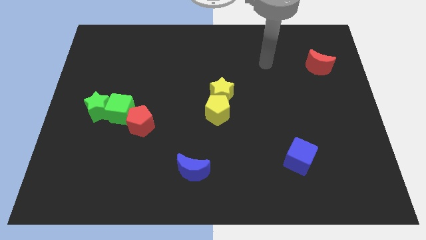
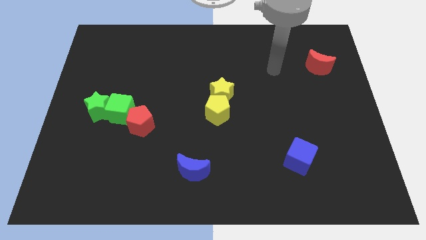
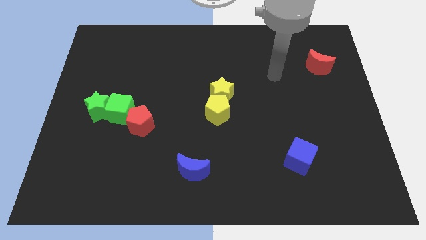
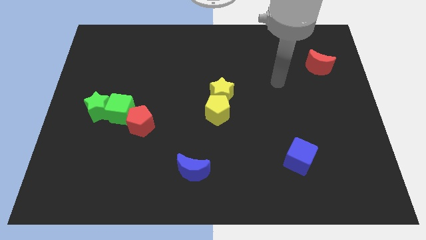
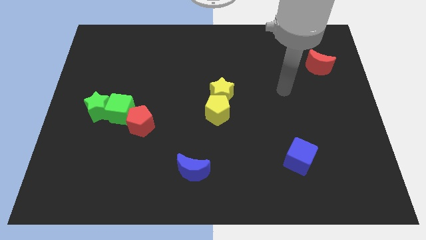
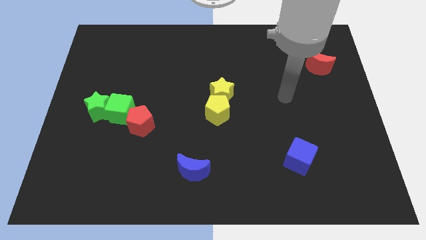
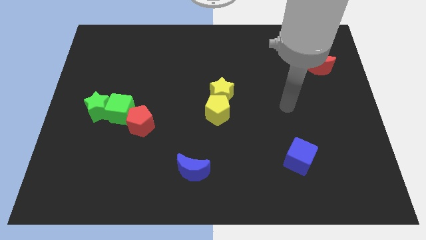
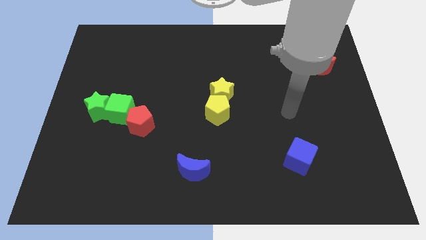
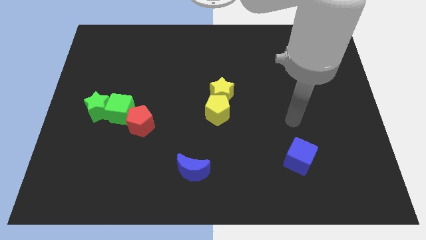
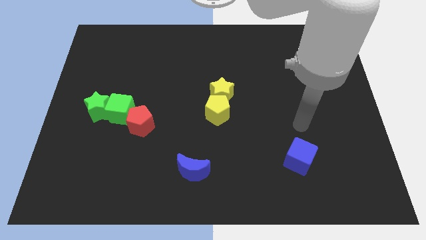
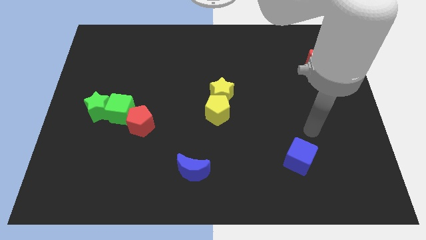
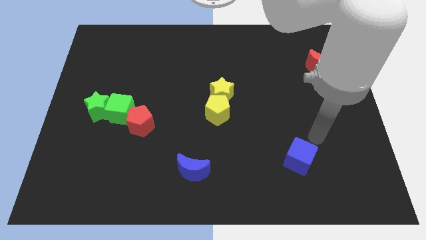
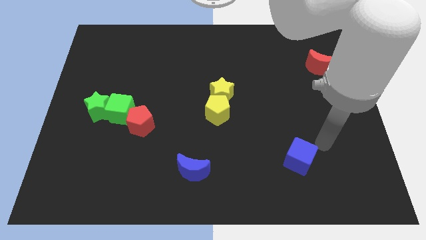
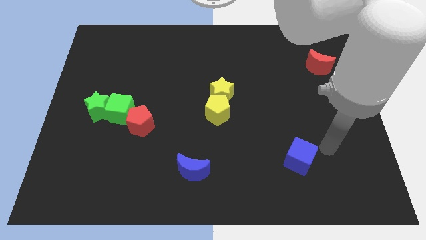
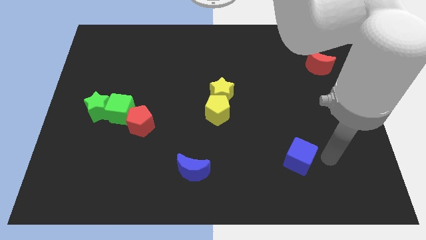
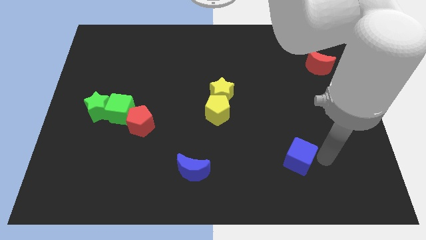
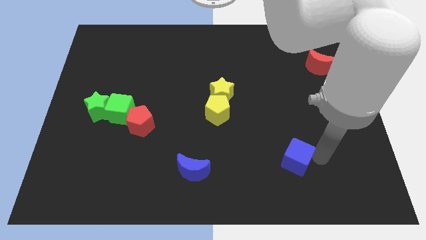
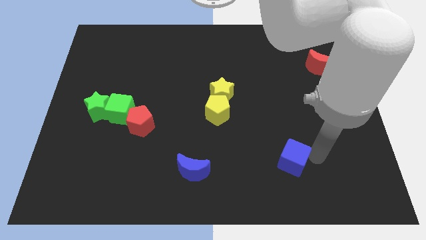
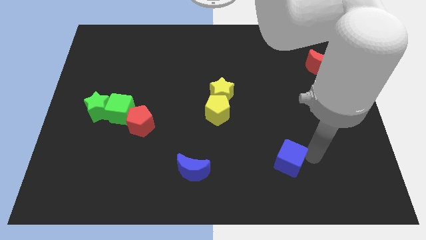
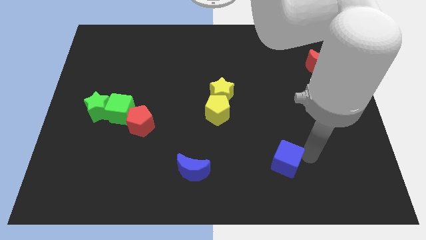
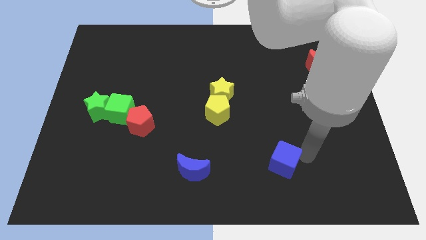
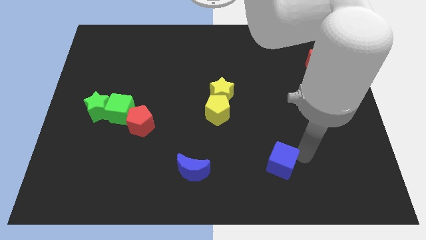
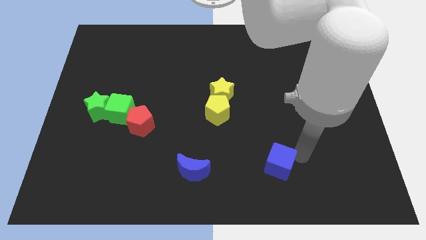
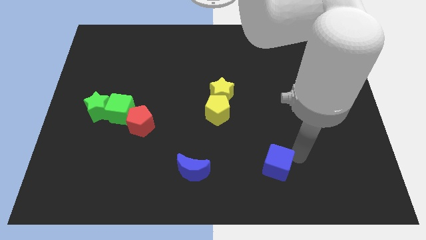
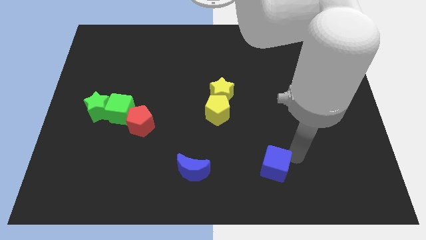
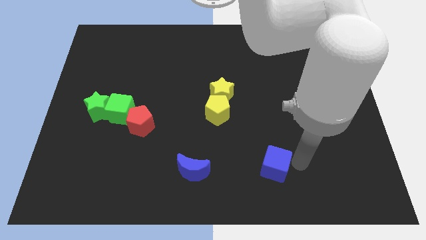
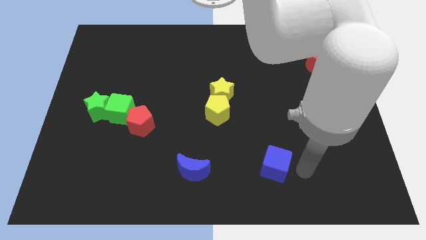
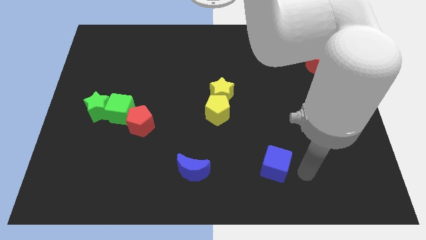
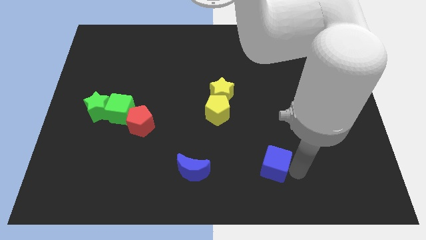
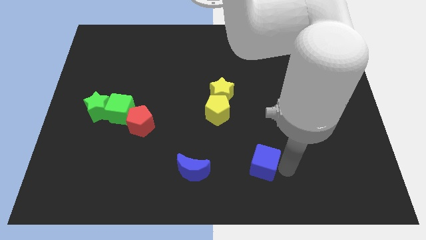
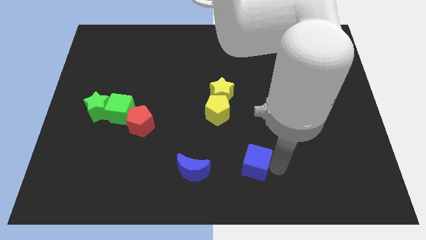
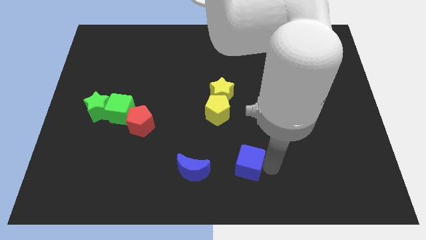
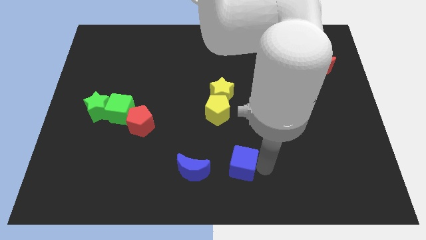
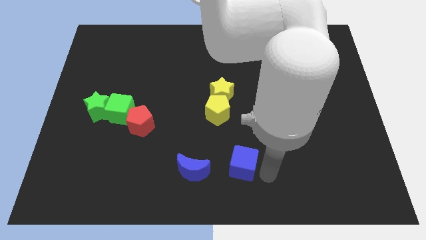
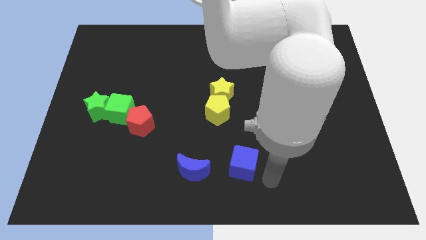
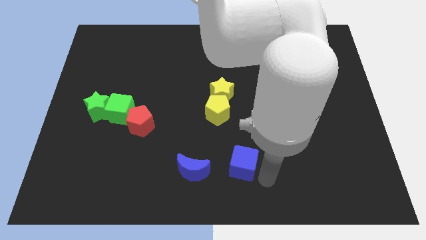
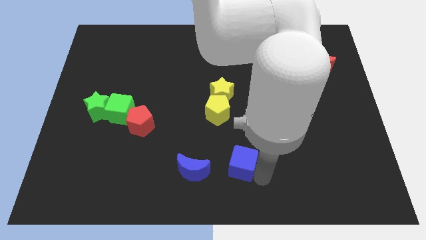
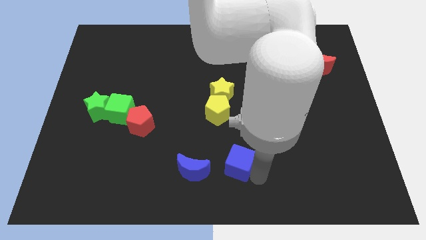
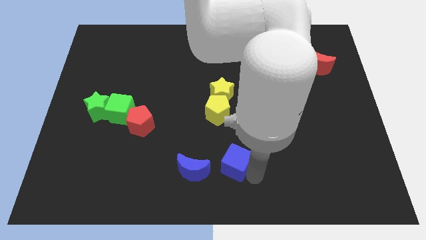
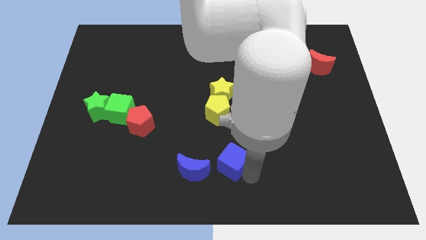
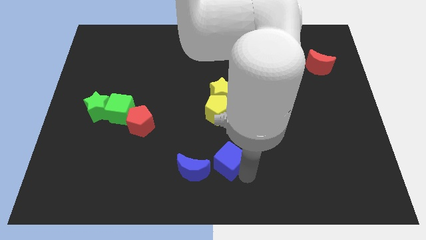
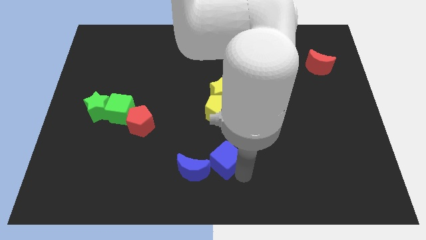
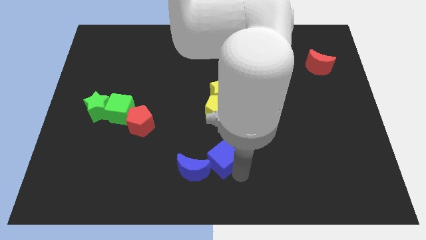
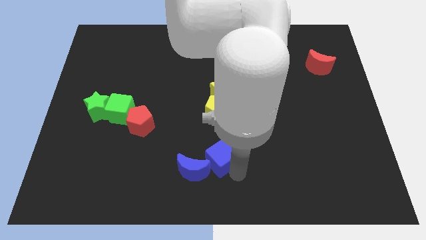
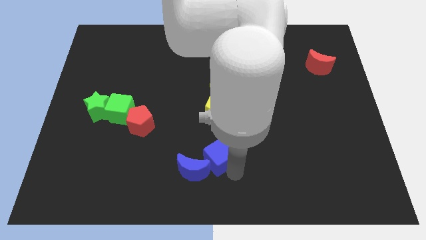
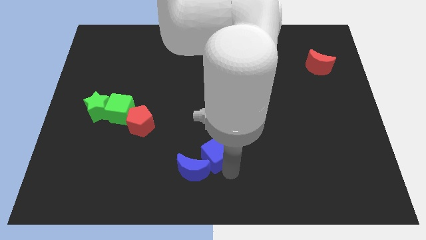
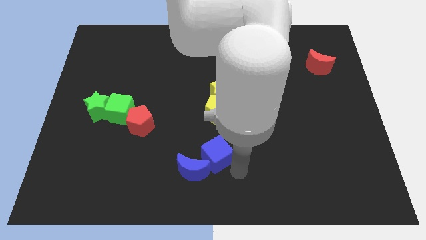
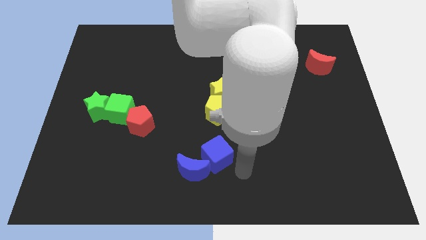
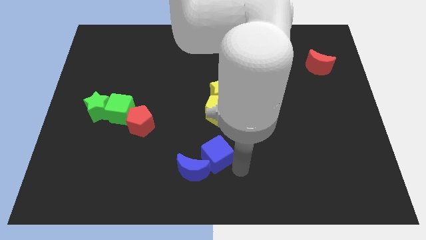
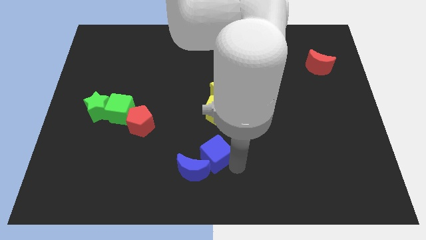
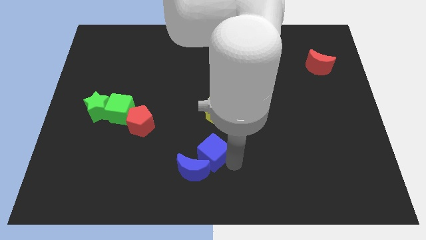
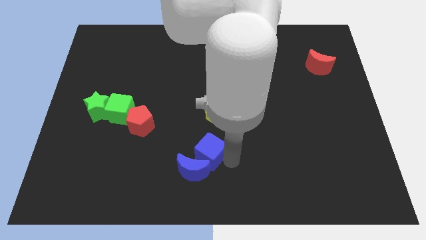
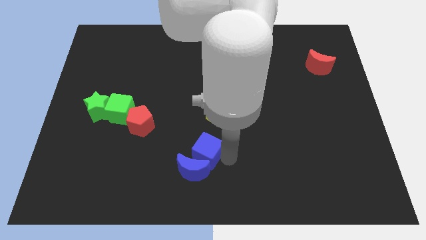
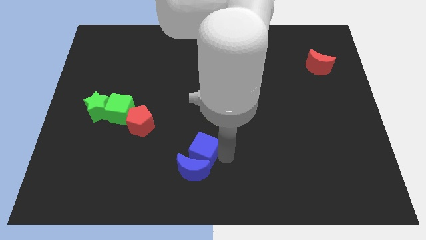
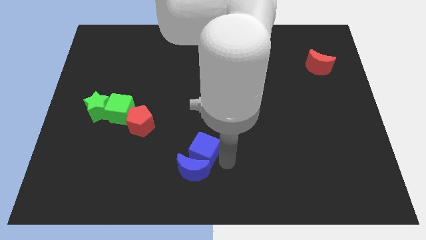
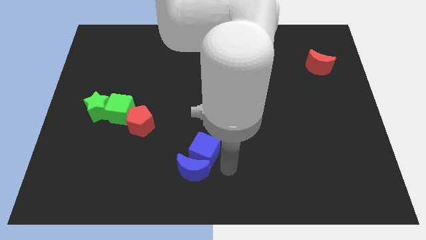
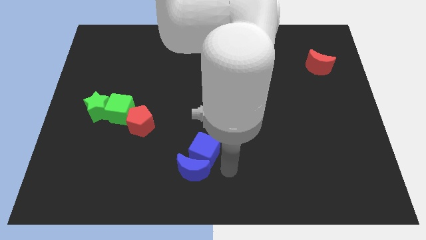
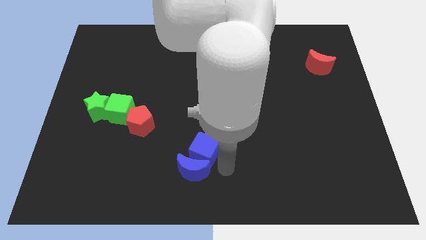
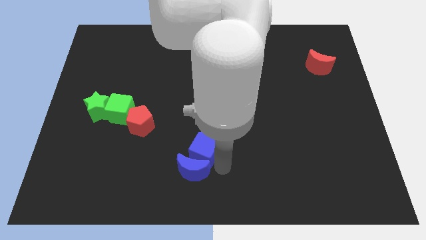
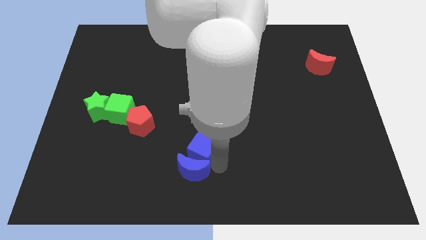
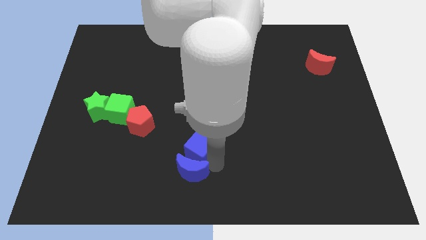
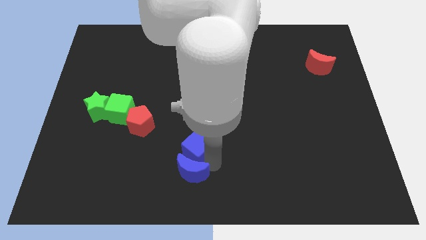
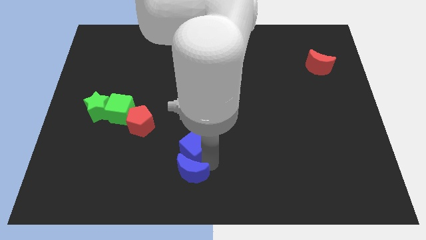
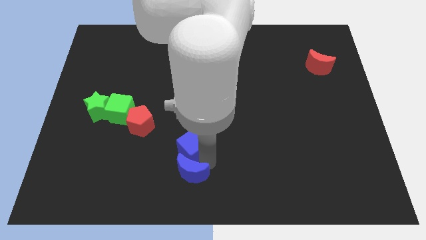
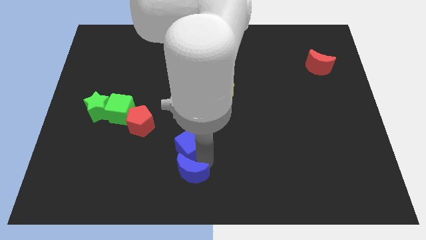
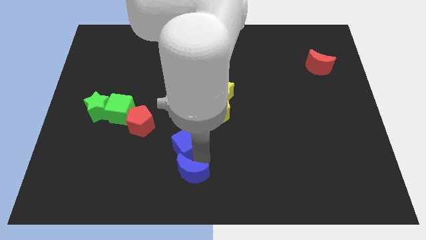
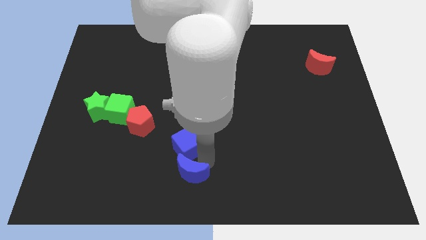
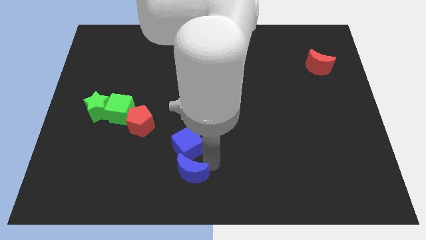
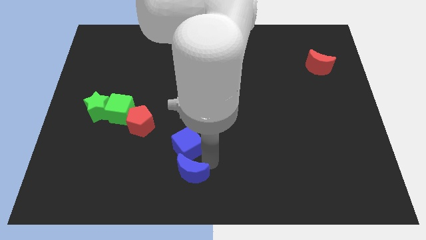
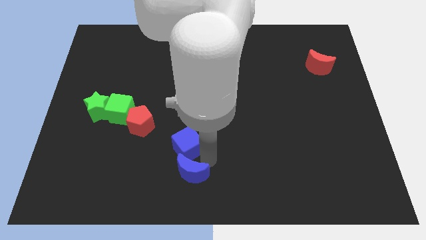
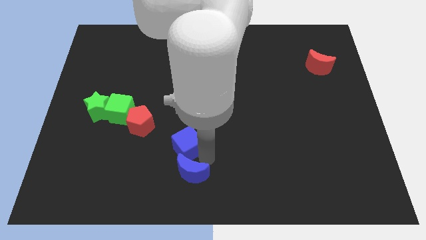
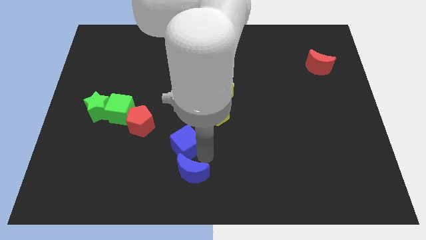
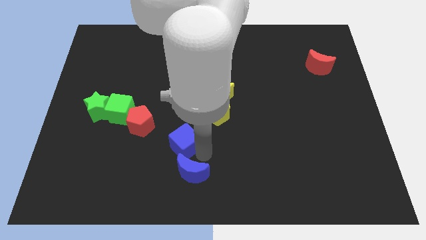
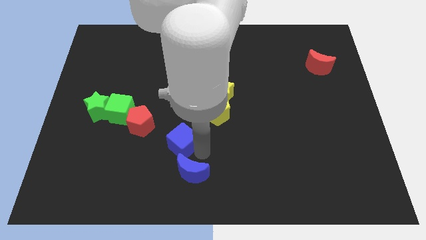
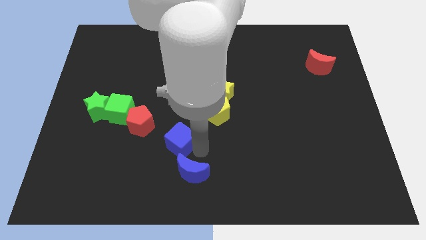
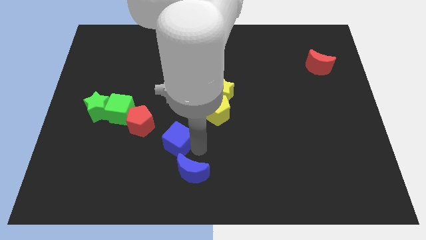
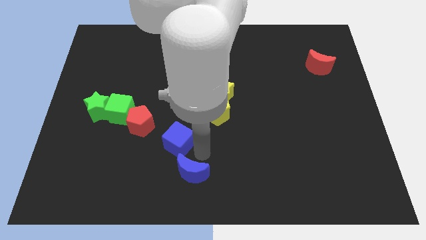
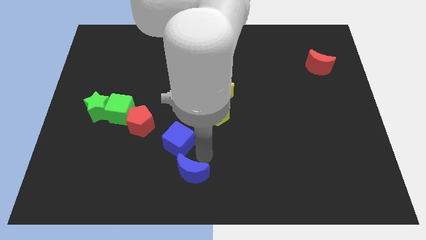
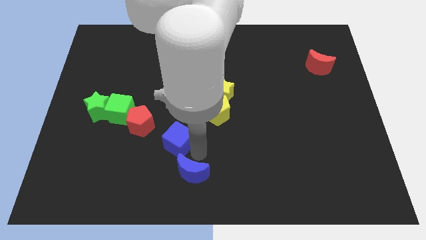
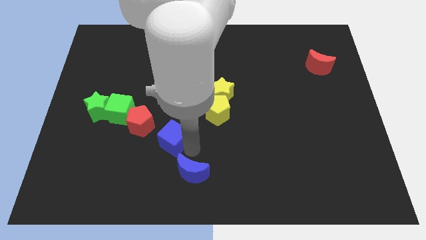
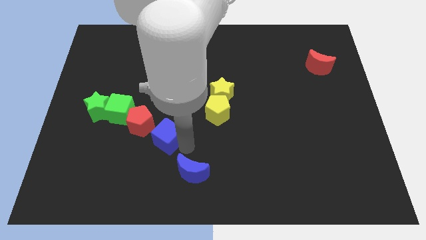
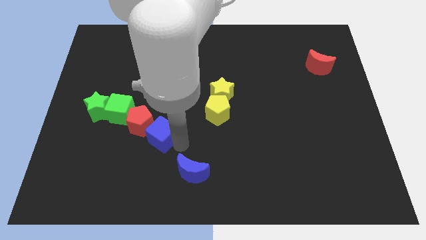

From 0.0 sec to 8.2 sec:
put the blue cube towards the red pentagon
